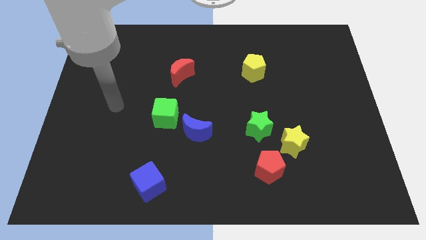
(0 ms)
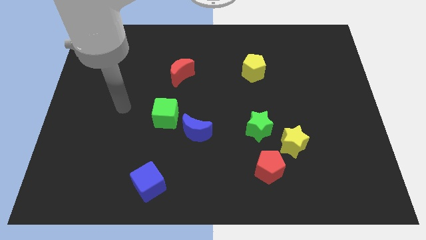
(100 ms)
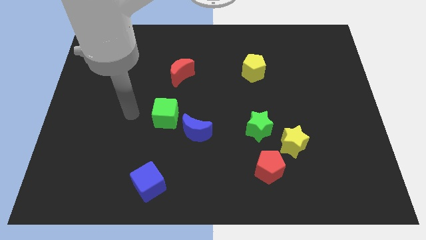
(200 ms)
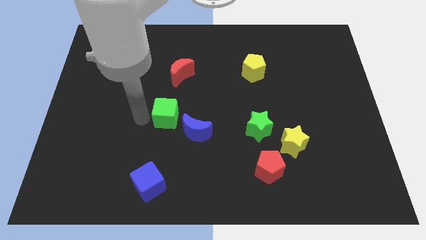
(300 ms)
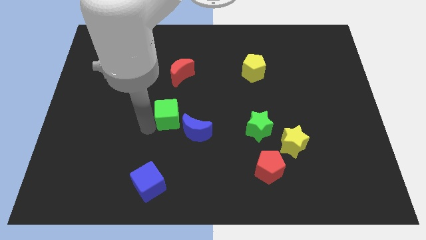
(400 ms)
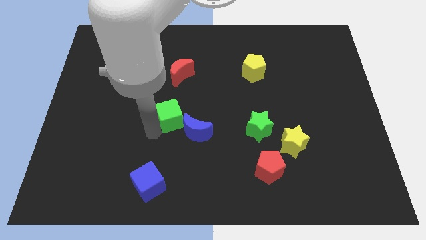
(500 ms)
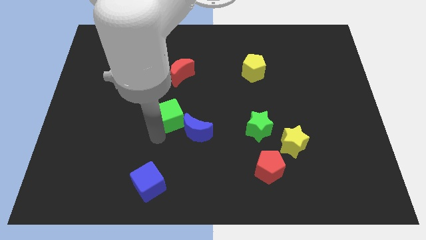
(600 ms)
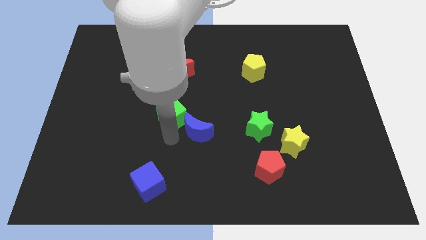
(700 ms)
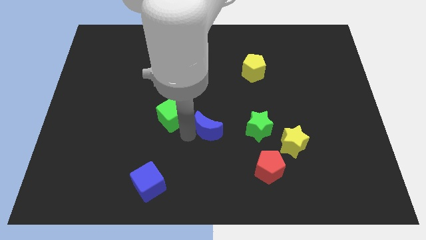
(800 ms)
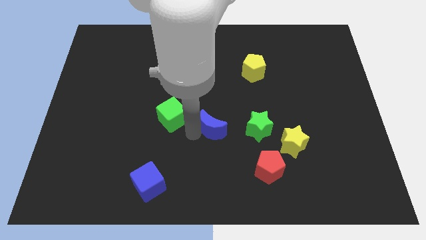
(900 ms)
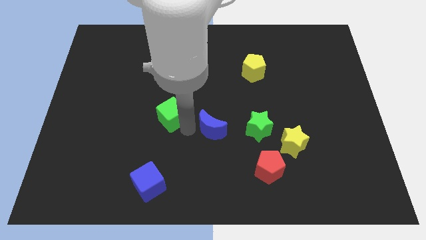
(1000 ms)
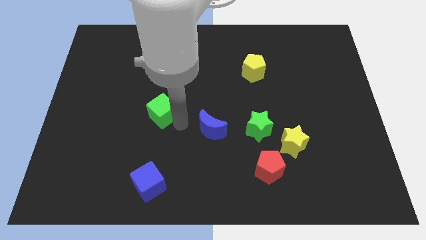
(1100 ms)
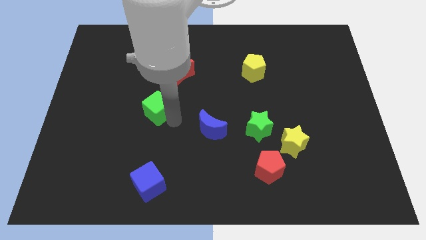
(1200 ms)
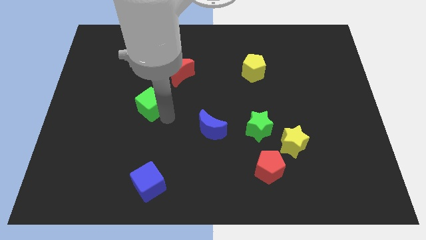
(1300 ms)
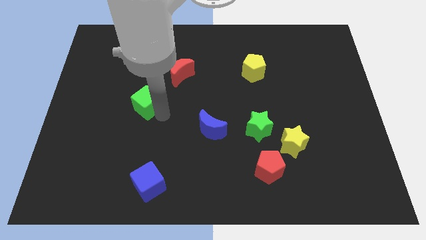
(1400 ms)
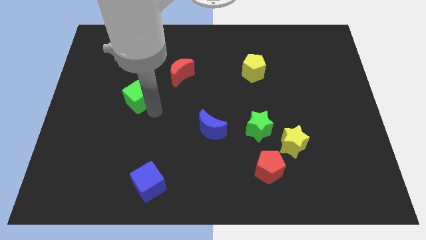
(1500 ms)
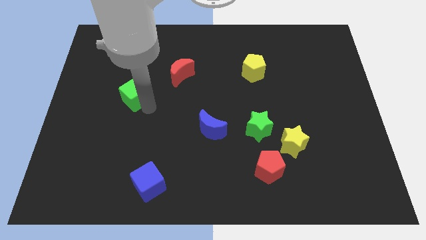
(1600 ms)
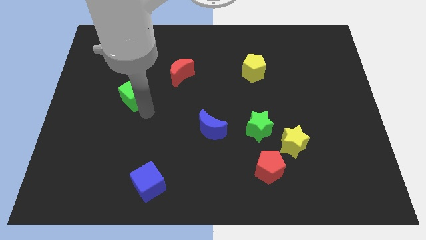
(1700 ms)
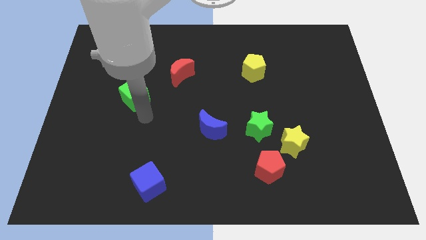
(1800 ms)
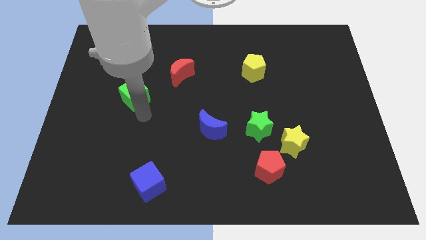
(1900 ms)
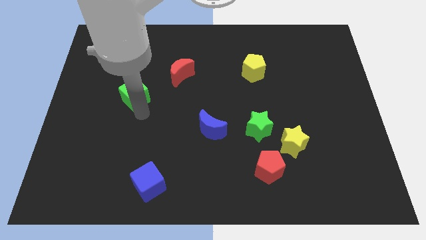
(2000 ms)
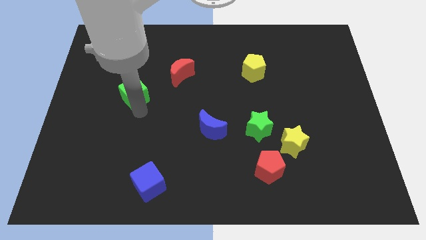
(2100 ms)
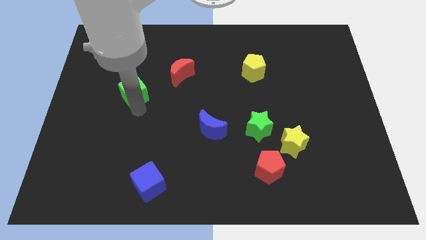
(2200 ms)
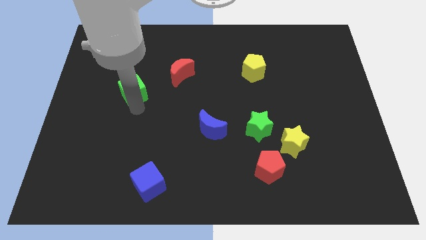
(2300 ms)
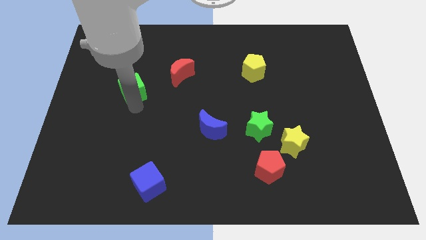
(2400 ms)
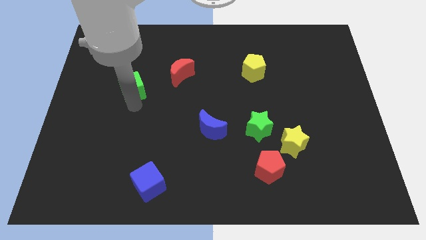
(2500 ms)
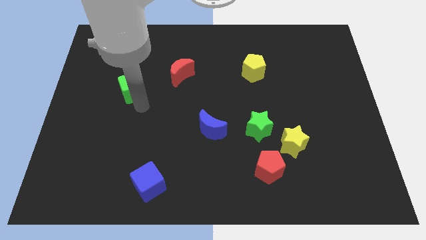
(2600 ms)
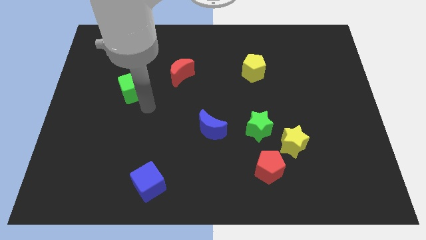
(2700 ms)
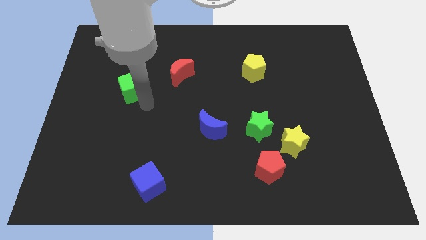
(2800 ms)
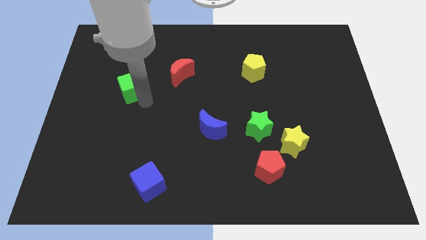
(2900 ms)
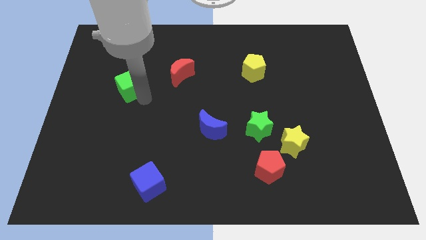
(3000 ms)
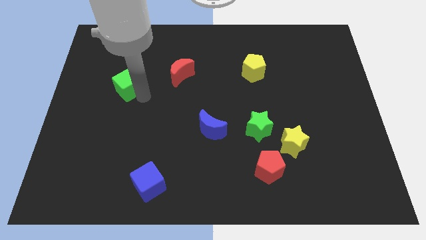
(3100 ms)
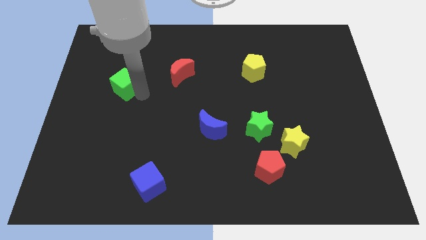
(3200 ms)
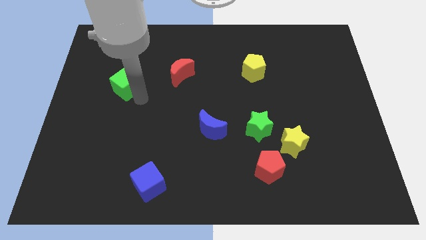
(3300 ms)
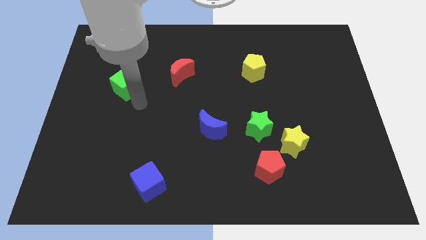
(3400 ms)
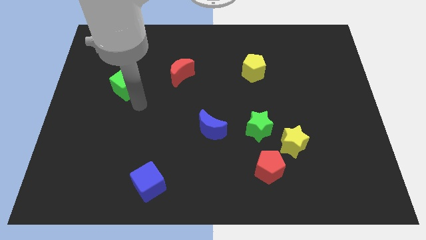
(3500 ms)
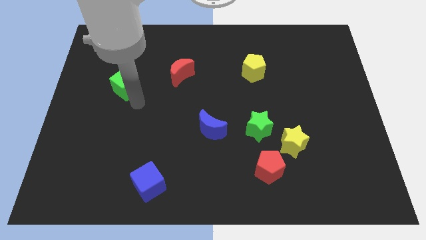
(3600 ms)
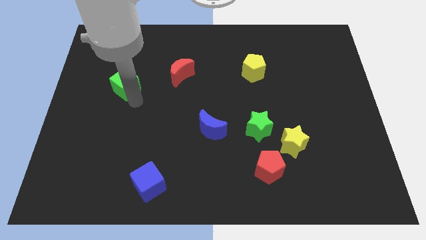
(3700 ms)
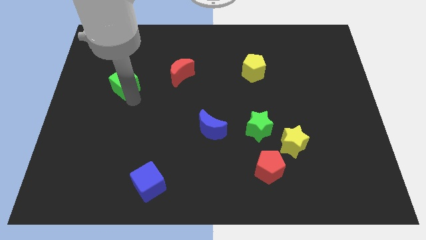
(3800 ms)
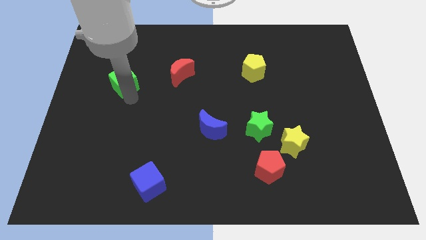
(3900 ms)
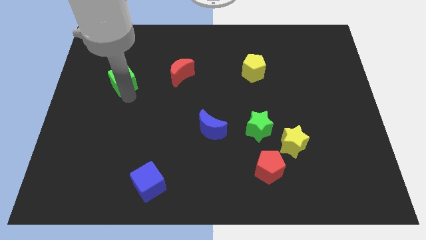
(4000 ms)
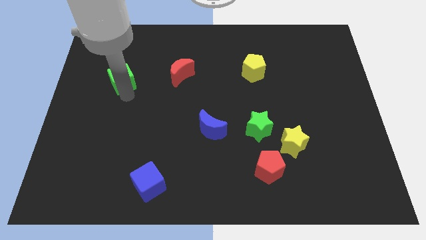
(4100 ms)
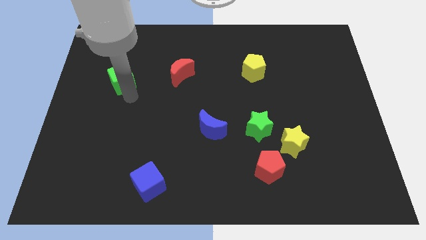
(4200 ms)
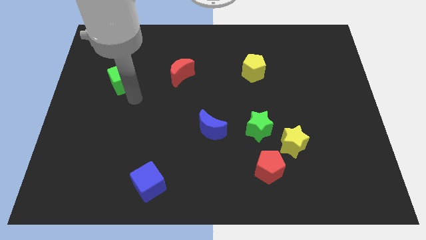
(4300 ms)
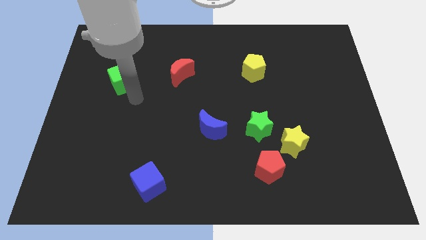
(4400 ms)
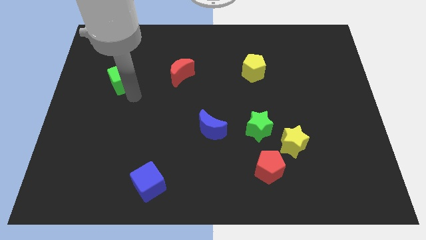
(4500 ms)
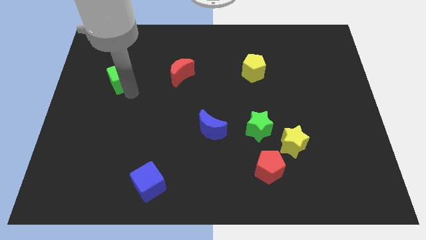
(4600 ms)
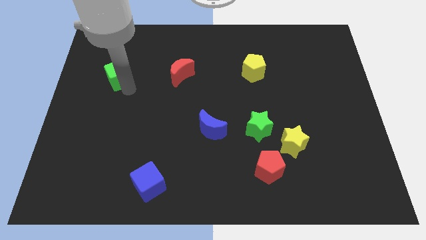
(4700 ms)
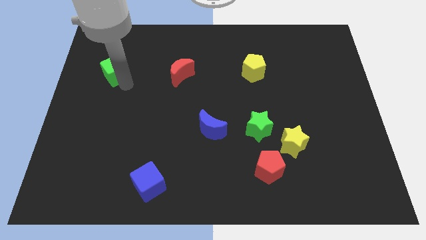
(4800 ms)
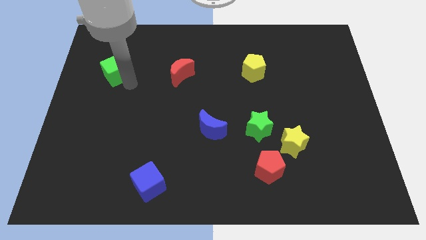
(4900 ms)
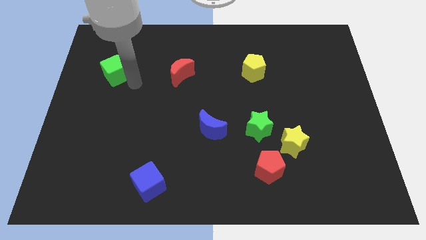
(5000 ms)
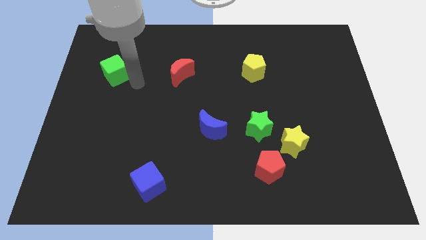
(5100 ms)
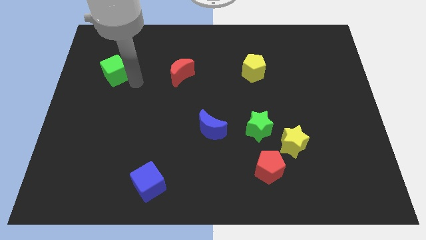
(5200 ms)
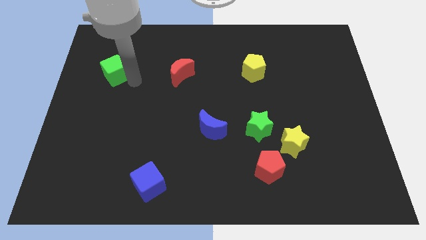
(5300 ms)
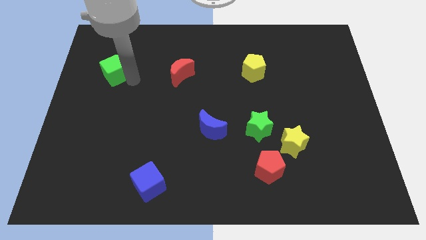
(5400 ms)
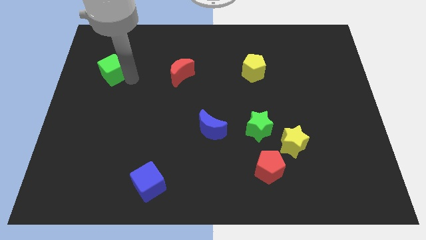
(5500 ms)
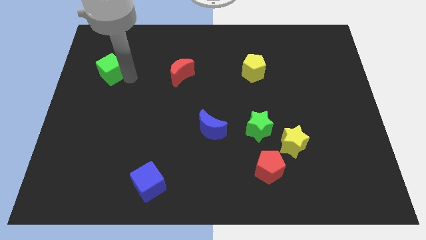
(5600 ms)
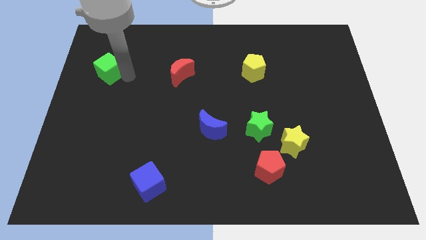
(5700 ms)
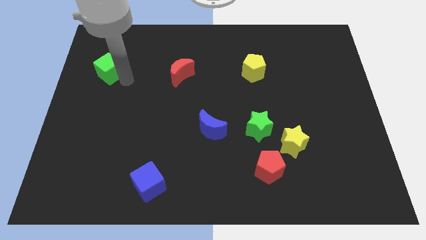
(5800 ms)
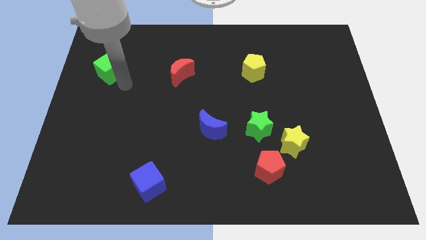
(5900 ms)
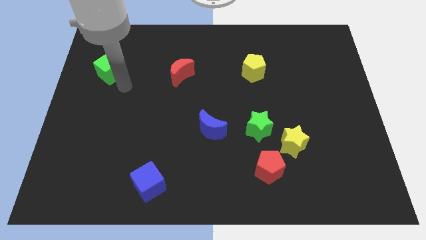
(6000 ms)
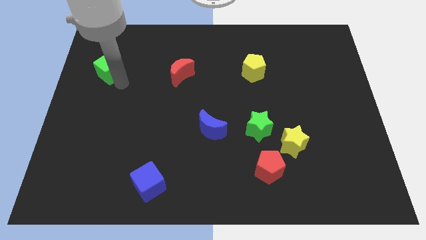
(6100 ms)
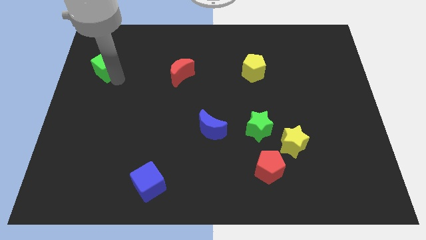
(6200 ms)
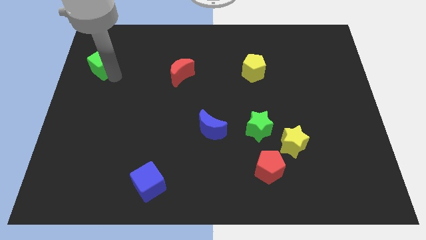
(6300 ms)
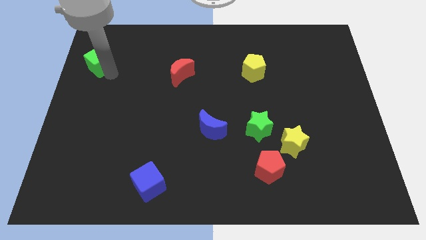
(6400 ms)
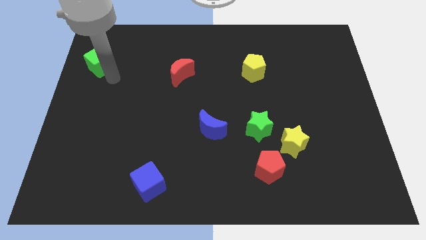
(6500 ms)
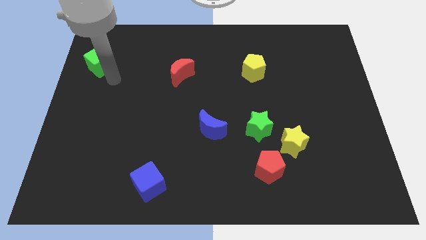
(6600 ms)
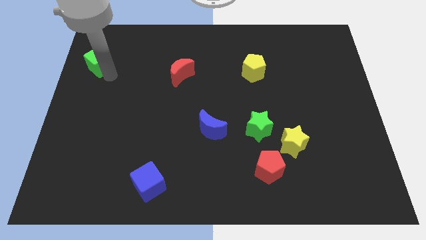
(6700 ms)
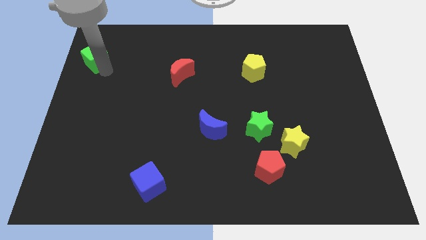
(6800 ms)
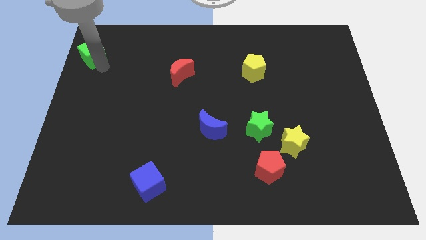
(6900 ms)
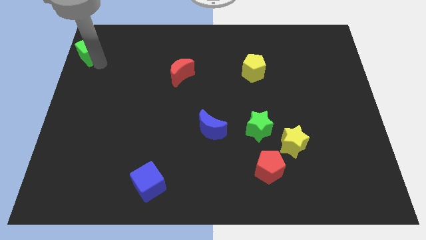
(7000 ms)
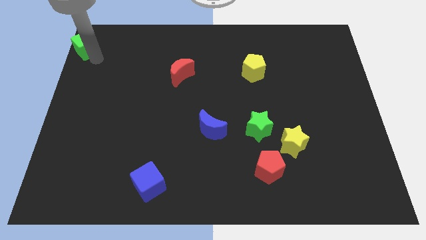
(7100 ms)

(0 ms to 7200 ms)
push the green cube to the top left of the board
